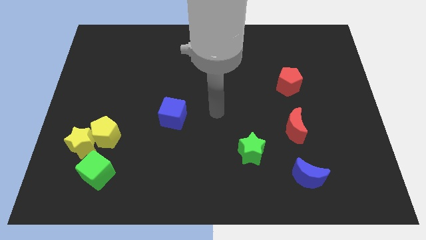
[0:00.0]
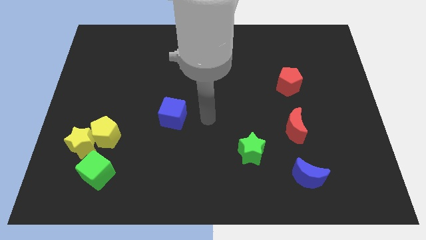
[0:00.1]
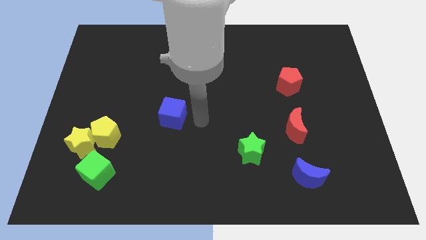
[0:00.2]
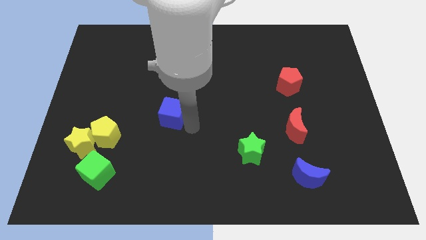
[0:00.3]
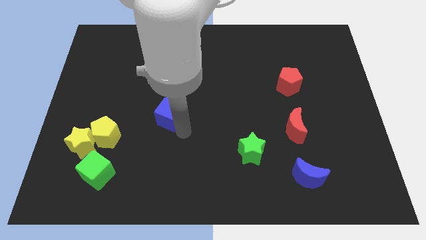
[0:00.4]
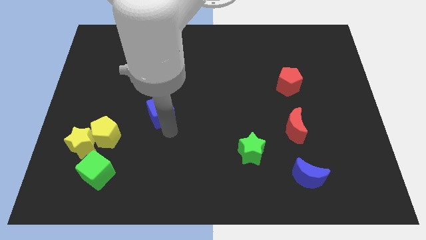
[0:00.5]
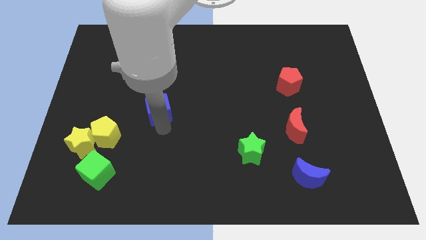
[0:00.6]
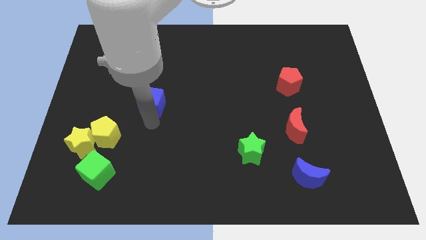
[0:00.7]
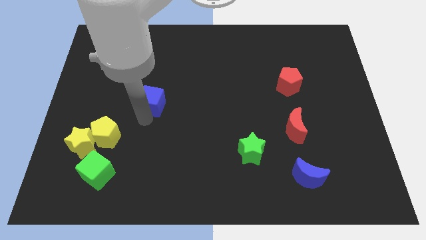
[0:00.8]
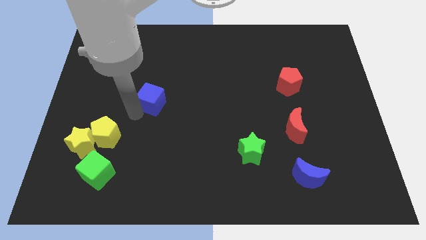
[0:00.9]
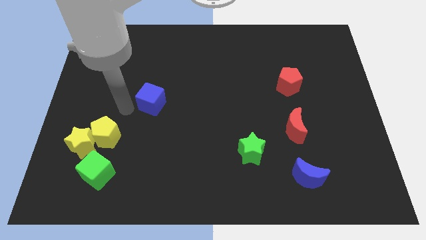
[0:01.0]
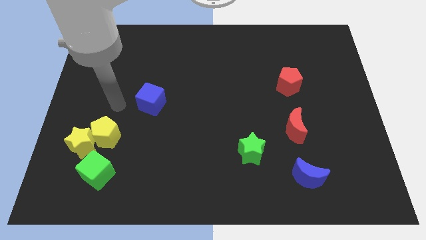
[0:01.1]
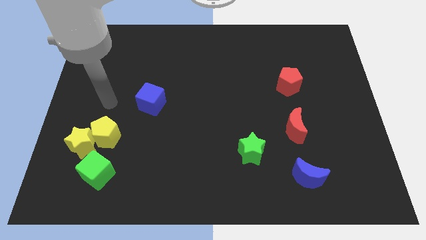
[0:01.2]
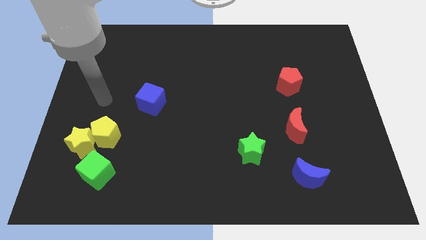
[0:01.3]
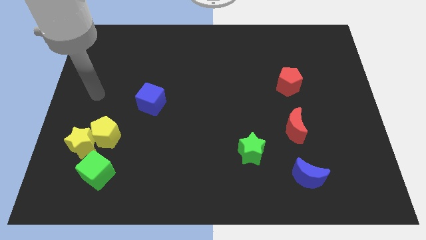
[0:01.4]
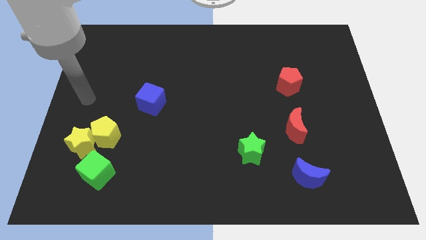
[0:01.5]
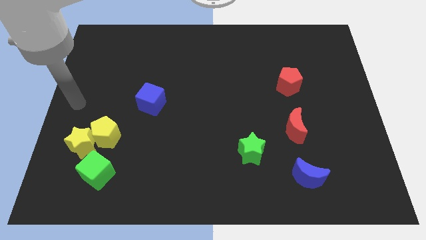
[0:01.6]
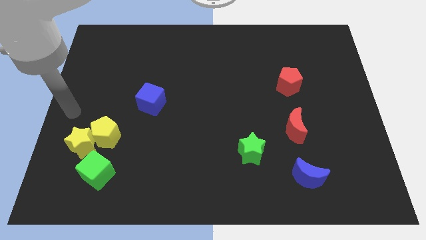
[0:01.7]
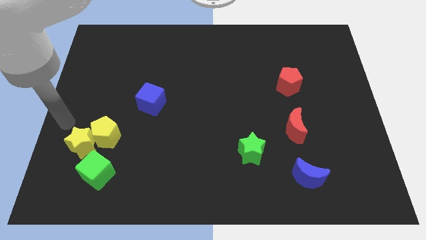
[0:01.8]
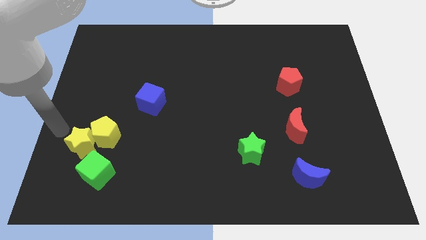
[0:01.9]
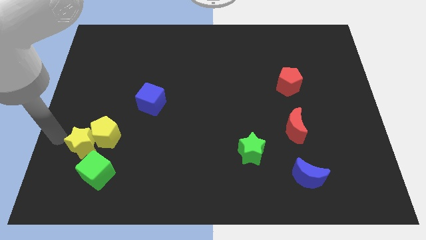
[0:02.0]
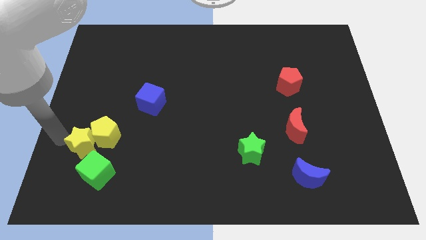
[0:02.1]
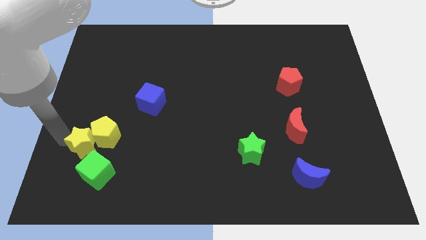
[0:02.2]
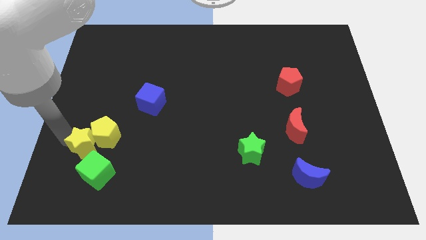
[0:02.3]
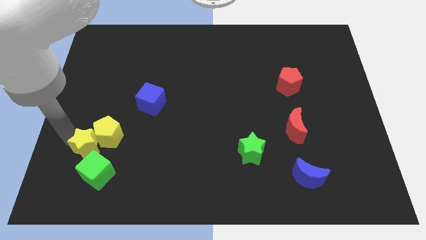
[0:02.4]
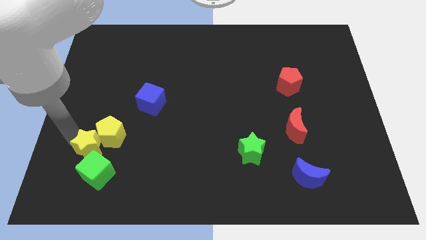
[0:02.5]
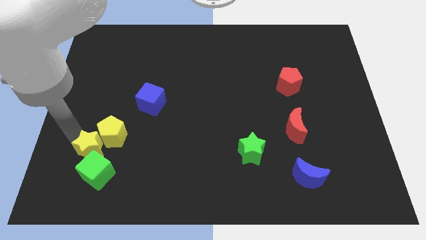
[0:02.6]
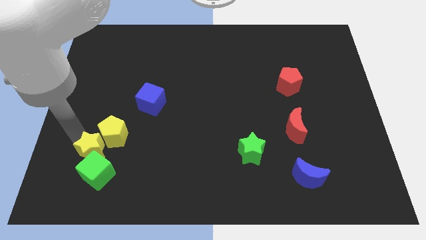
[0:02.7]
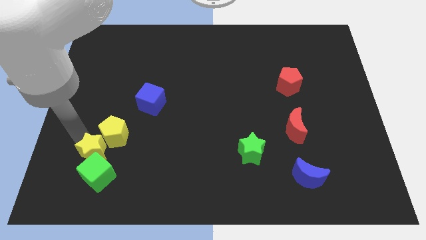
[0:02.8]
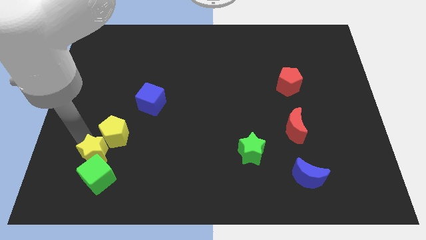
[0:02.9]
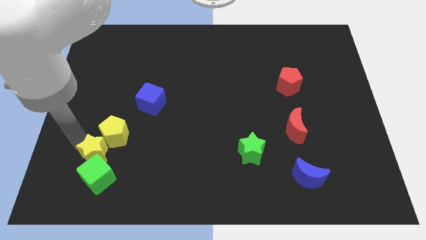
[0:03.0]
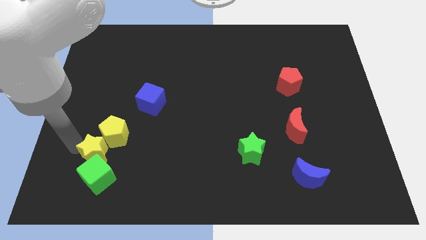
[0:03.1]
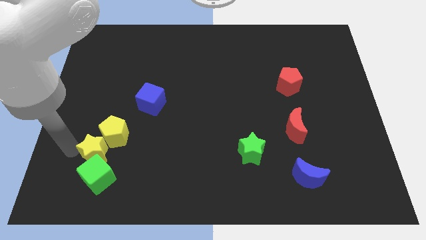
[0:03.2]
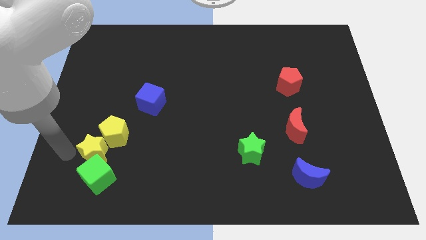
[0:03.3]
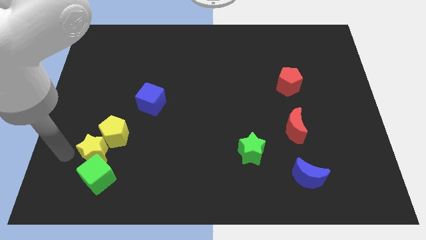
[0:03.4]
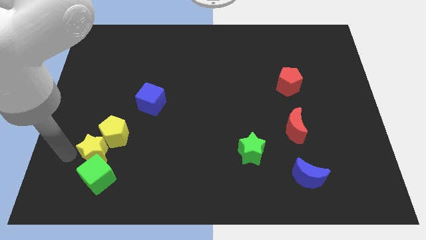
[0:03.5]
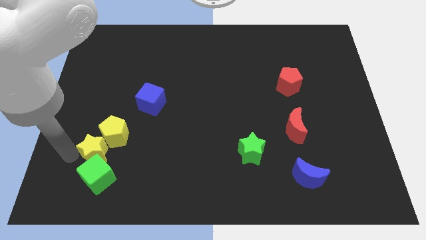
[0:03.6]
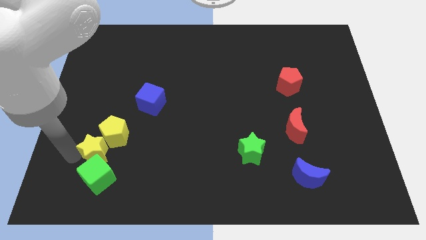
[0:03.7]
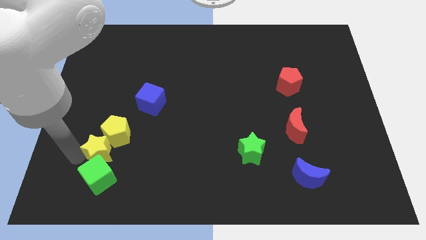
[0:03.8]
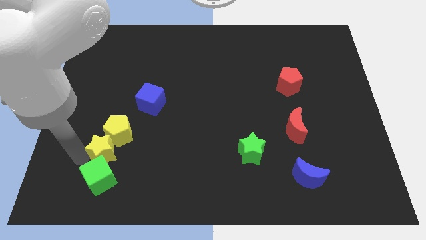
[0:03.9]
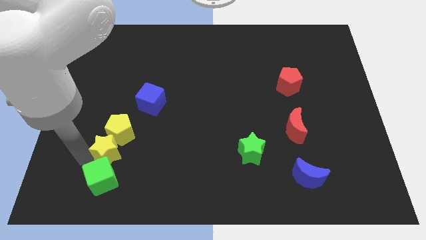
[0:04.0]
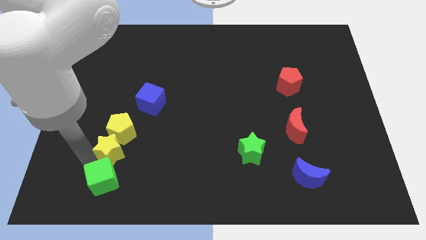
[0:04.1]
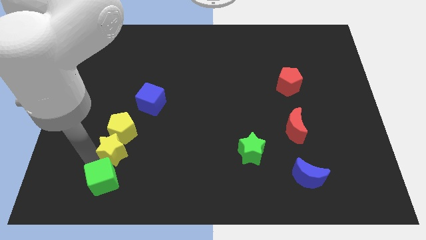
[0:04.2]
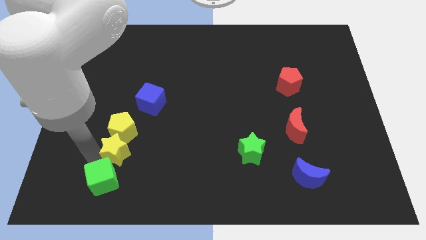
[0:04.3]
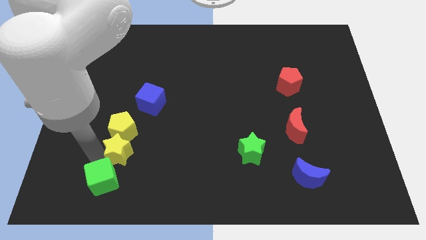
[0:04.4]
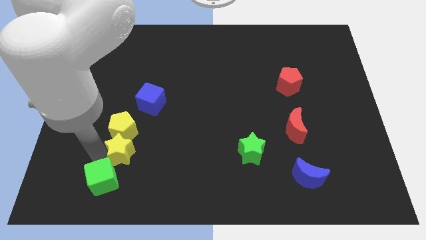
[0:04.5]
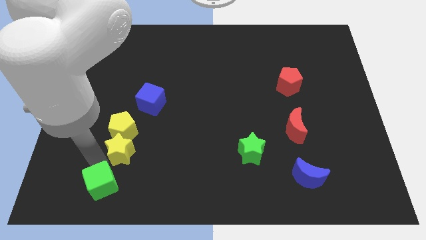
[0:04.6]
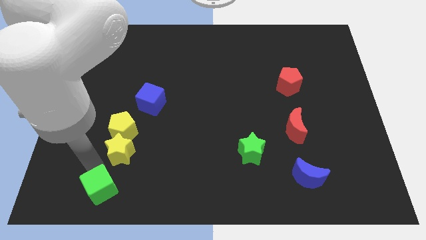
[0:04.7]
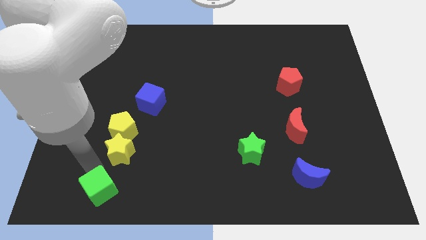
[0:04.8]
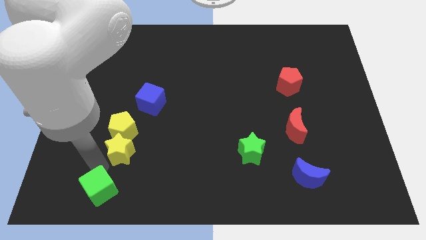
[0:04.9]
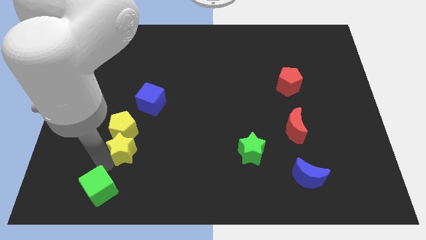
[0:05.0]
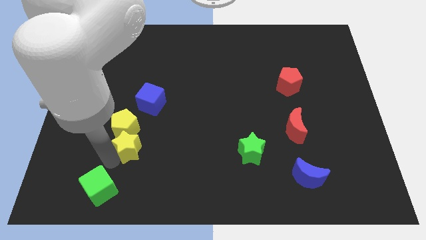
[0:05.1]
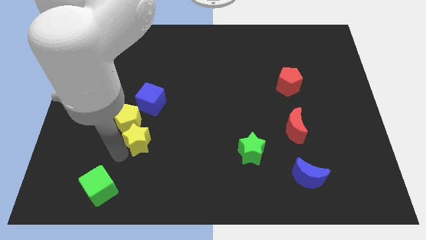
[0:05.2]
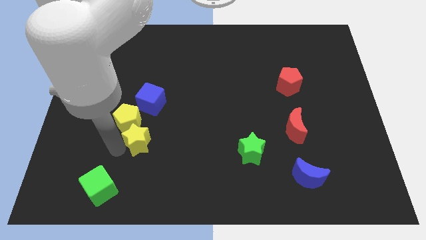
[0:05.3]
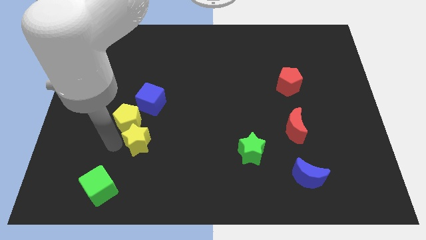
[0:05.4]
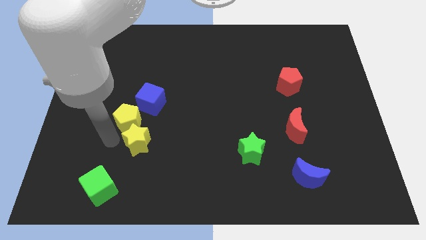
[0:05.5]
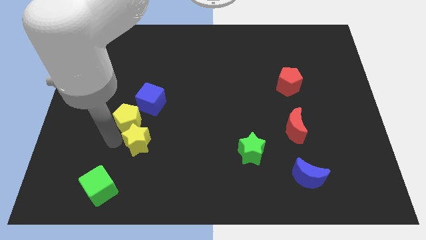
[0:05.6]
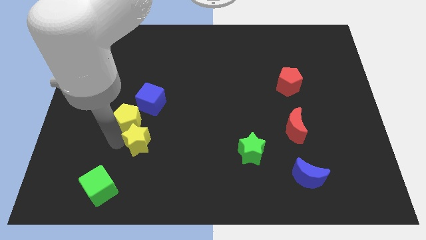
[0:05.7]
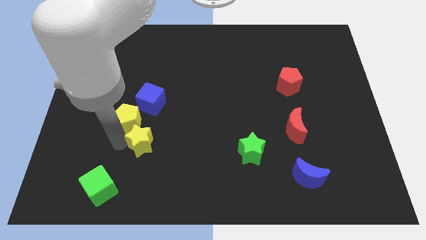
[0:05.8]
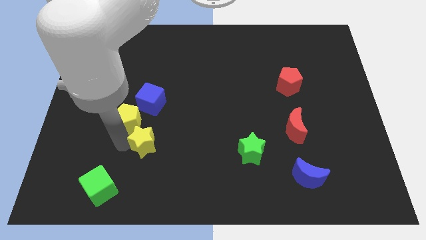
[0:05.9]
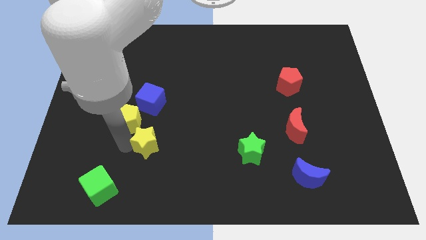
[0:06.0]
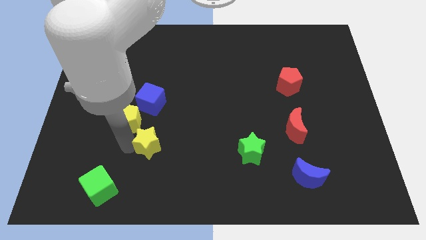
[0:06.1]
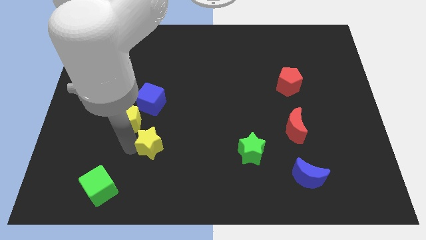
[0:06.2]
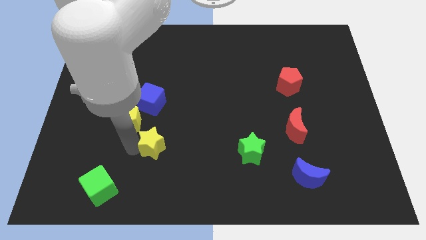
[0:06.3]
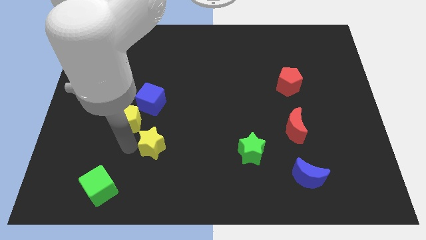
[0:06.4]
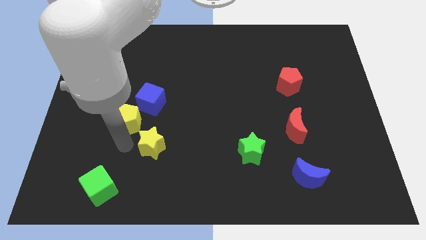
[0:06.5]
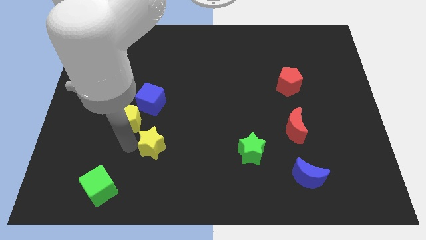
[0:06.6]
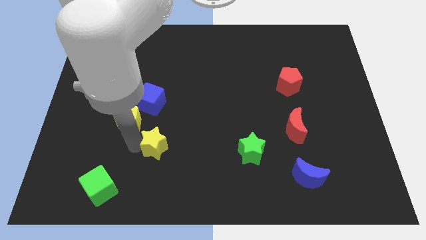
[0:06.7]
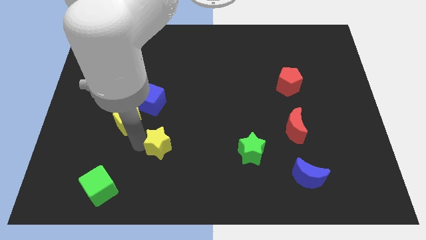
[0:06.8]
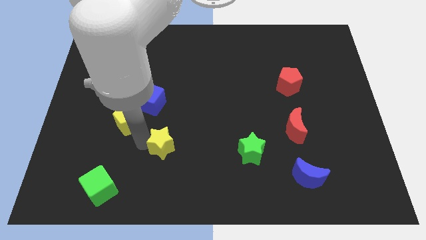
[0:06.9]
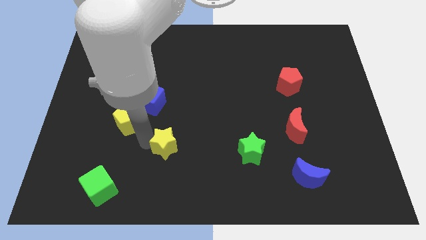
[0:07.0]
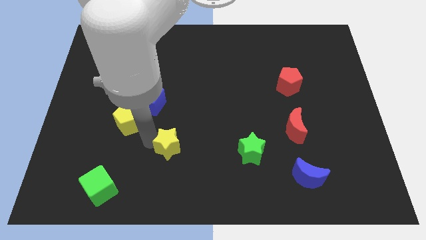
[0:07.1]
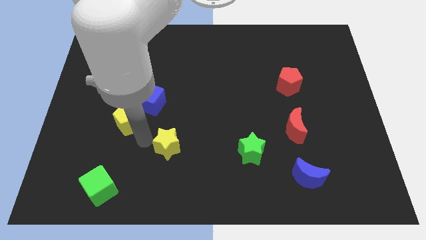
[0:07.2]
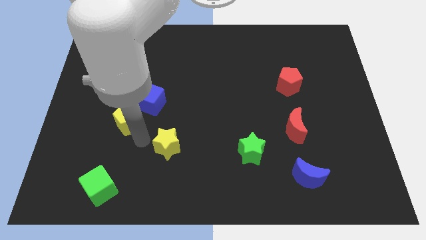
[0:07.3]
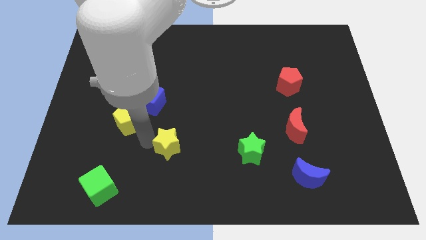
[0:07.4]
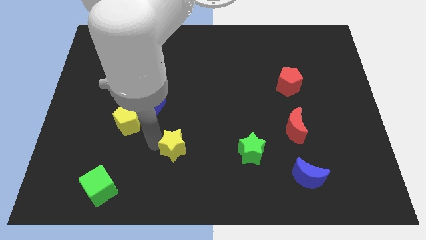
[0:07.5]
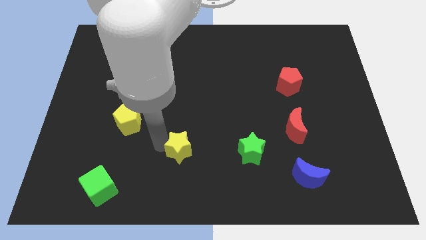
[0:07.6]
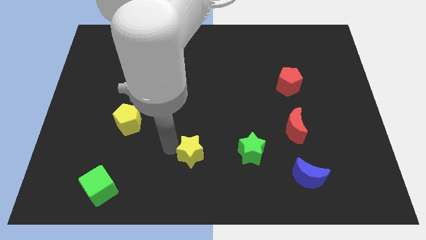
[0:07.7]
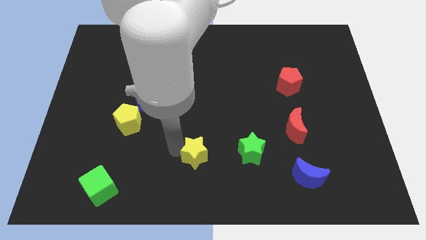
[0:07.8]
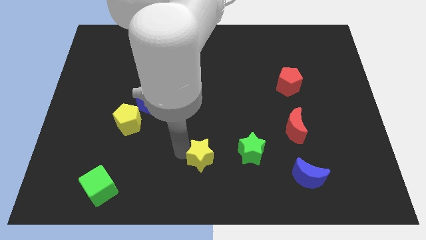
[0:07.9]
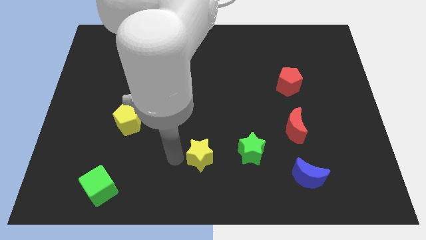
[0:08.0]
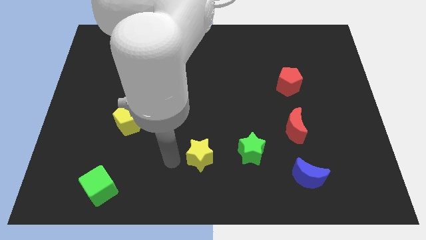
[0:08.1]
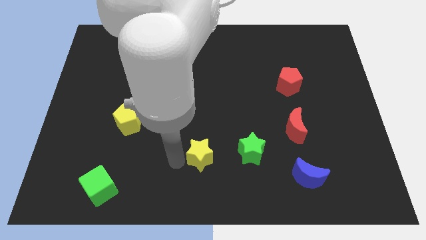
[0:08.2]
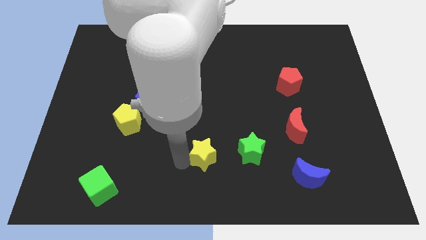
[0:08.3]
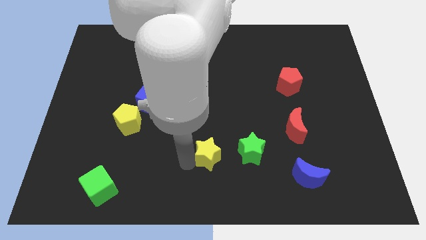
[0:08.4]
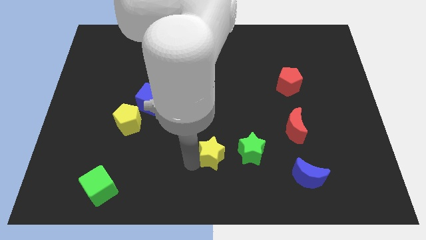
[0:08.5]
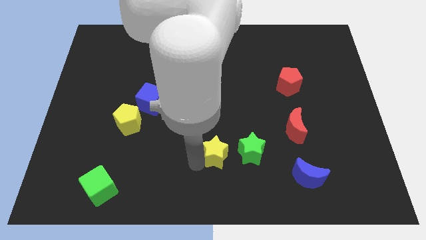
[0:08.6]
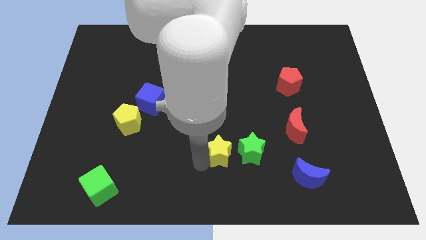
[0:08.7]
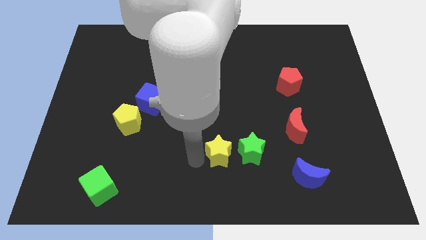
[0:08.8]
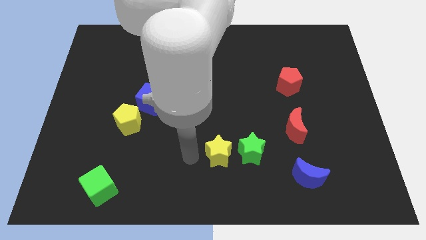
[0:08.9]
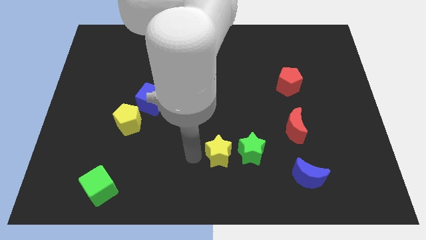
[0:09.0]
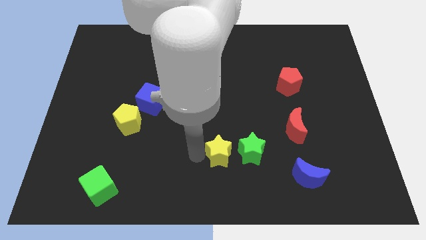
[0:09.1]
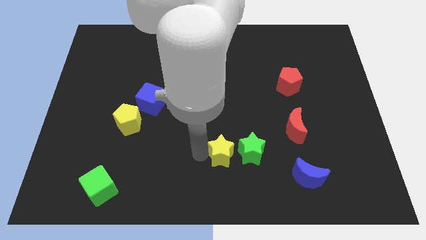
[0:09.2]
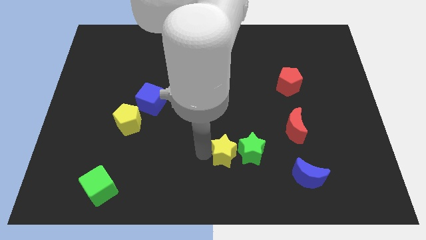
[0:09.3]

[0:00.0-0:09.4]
move the yellow star to the green star
